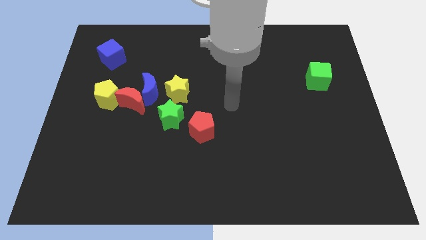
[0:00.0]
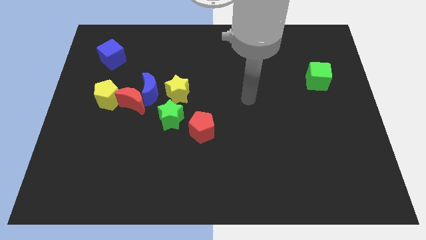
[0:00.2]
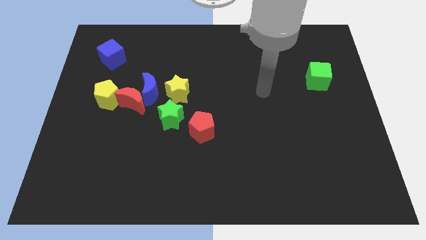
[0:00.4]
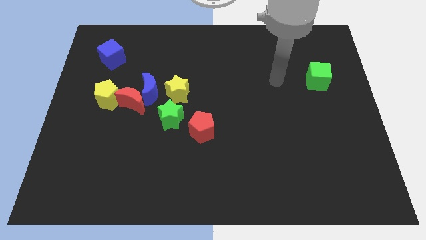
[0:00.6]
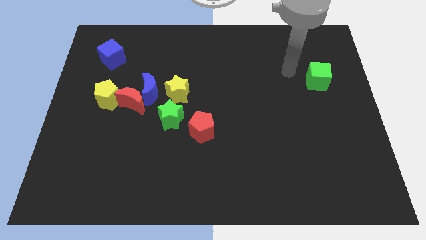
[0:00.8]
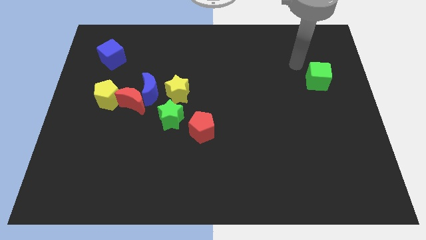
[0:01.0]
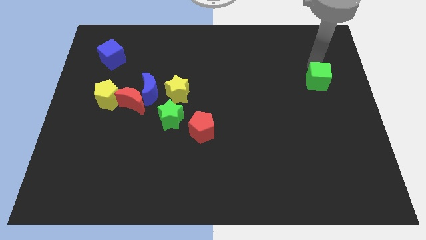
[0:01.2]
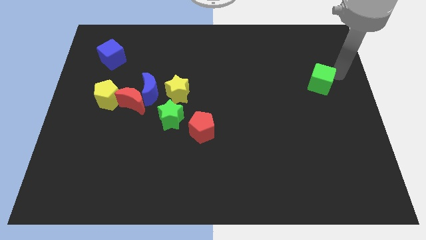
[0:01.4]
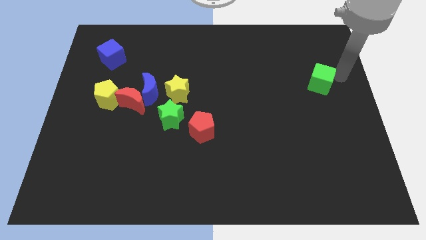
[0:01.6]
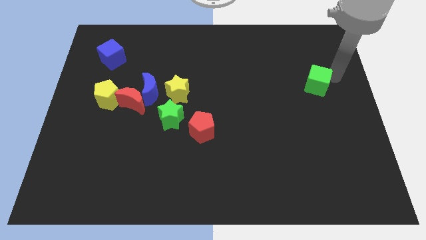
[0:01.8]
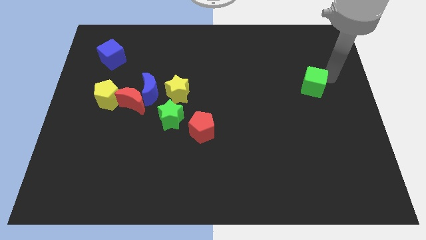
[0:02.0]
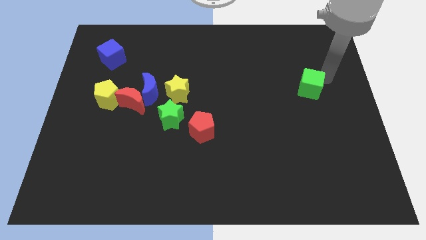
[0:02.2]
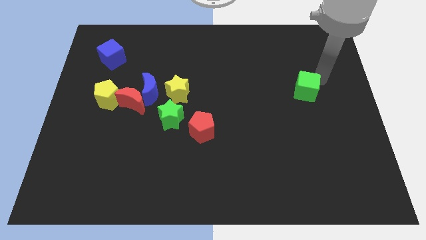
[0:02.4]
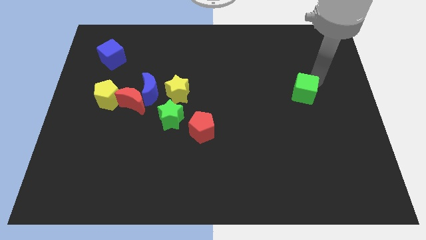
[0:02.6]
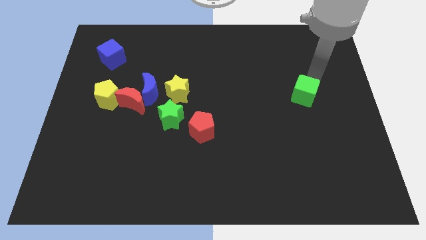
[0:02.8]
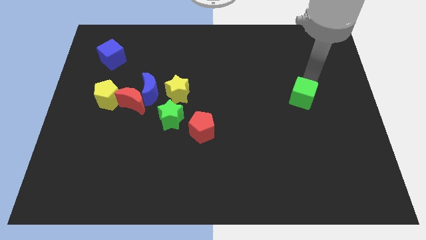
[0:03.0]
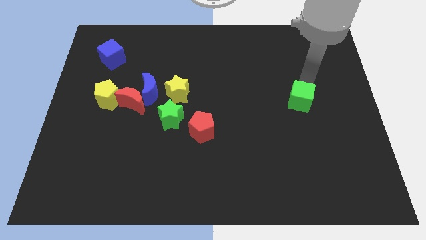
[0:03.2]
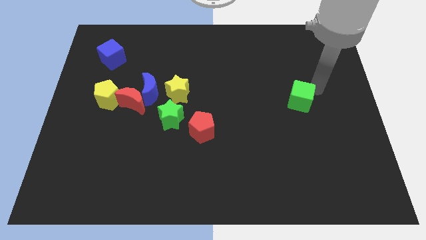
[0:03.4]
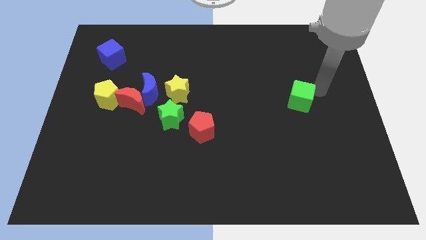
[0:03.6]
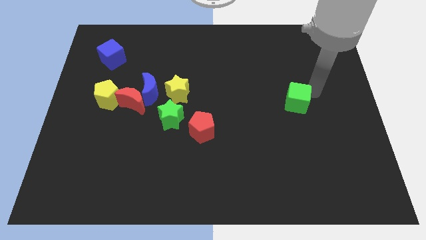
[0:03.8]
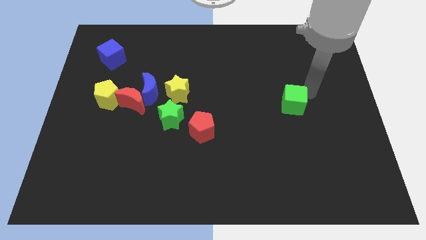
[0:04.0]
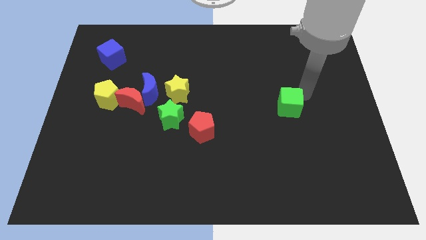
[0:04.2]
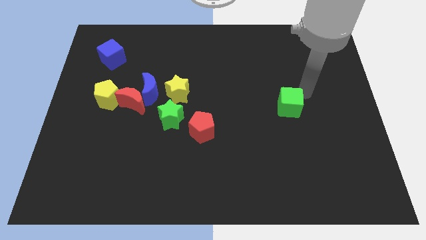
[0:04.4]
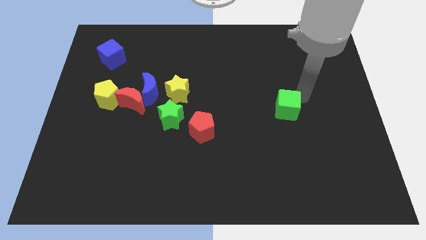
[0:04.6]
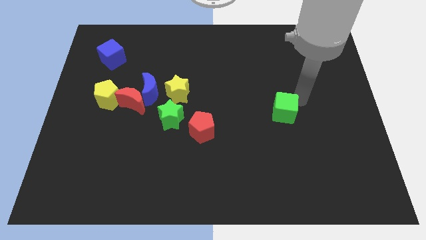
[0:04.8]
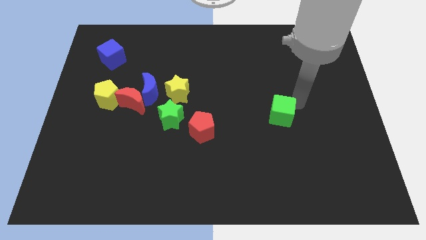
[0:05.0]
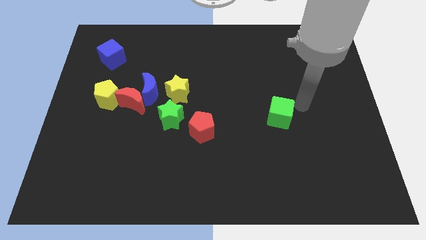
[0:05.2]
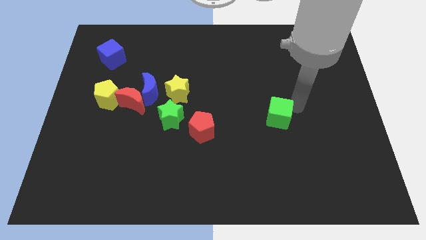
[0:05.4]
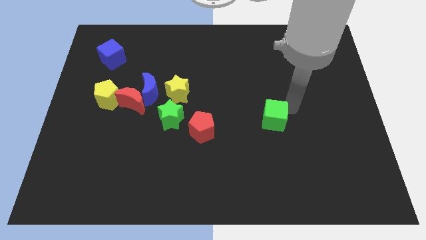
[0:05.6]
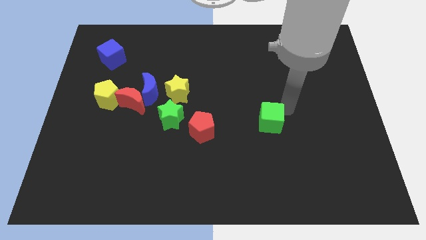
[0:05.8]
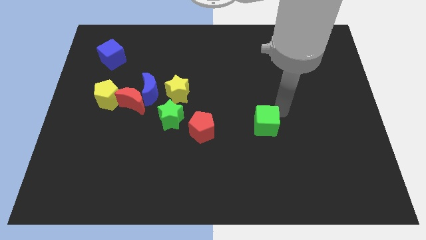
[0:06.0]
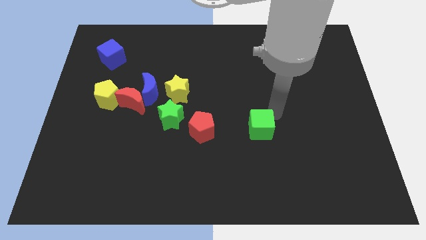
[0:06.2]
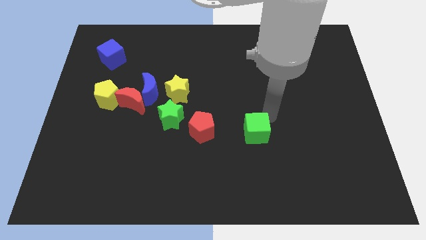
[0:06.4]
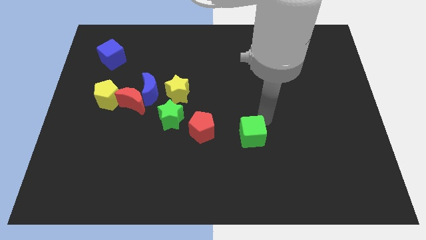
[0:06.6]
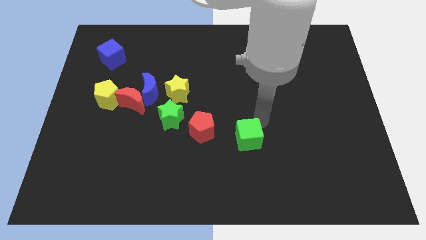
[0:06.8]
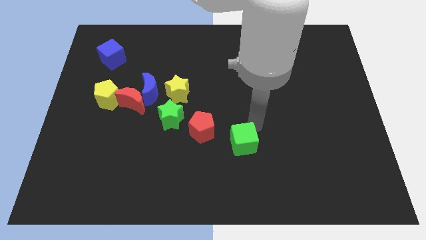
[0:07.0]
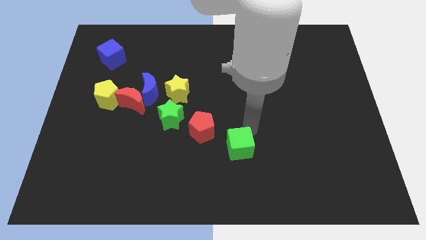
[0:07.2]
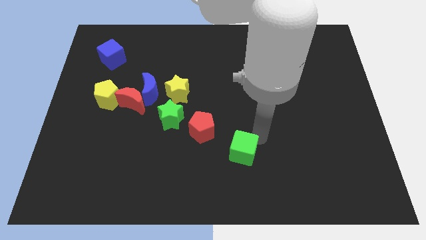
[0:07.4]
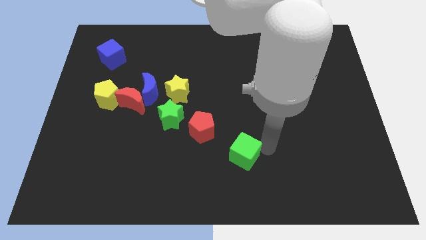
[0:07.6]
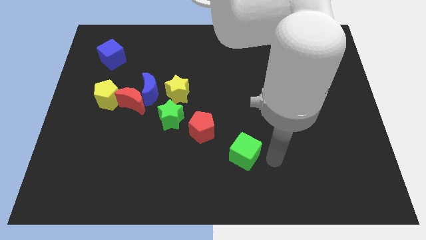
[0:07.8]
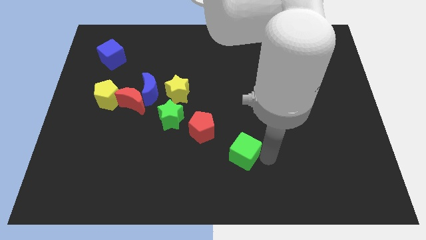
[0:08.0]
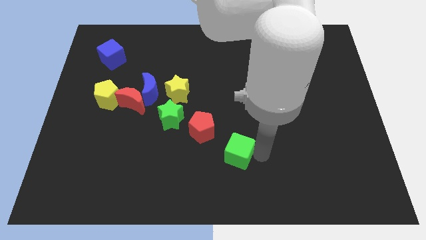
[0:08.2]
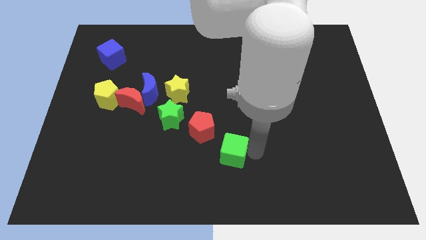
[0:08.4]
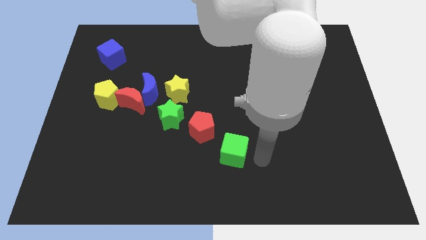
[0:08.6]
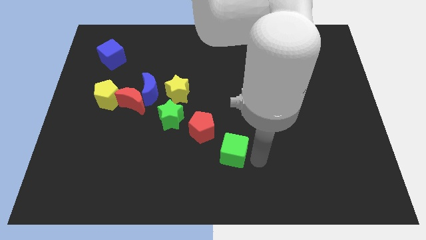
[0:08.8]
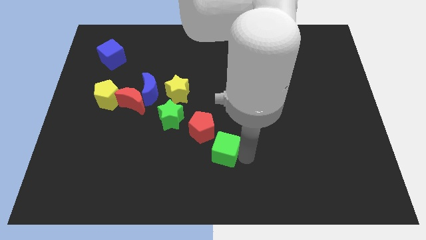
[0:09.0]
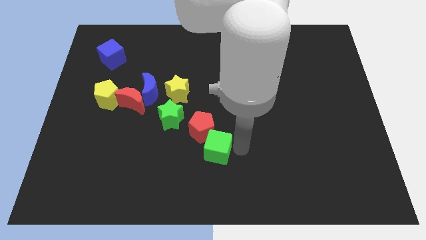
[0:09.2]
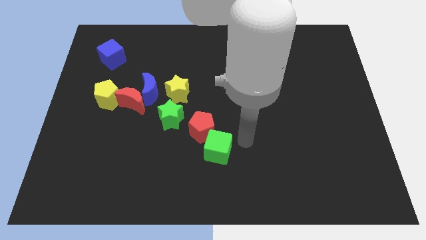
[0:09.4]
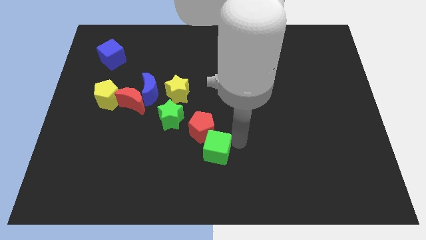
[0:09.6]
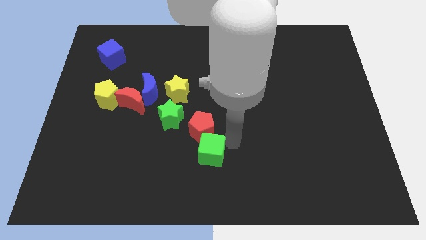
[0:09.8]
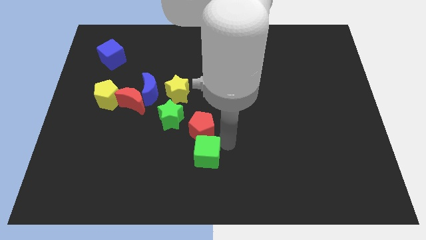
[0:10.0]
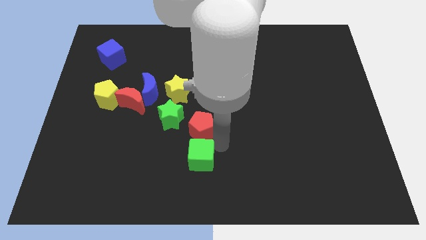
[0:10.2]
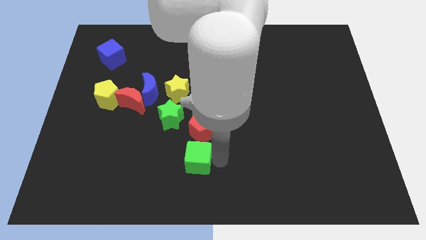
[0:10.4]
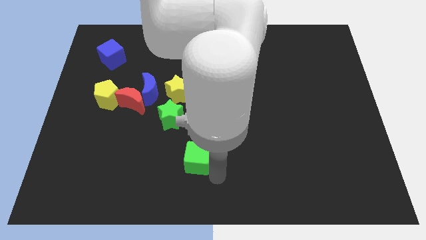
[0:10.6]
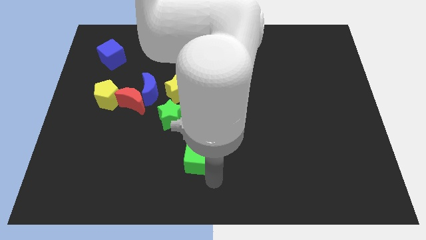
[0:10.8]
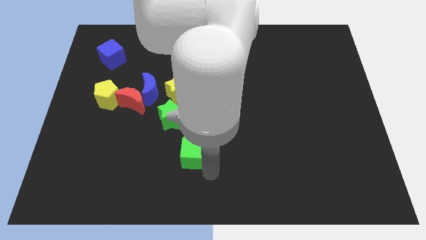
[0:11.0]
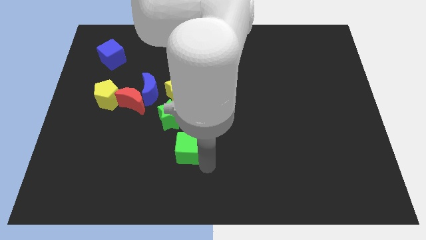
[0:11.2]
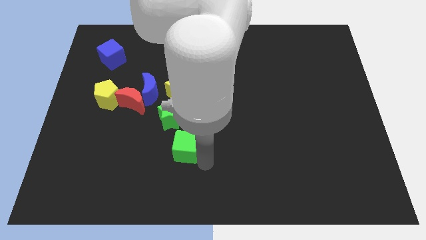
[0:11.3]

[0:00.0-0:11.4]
slide the green cube to the bottom side of the yellow star

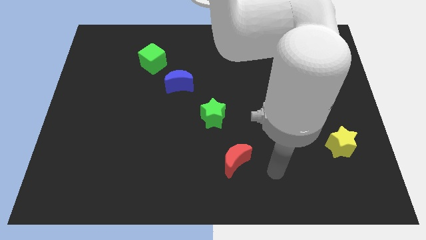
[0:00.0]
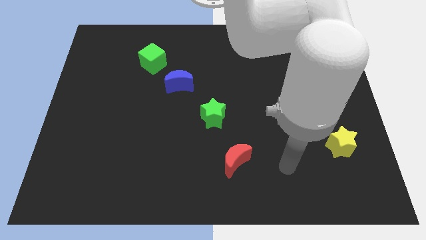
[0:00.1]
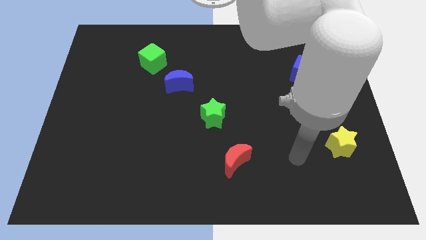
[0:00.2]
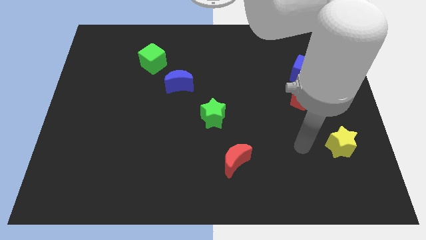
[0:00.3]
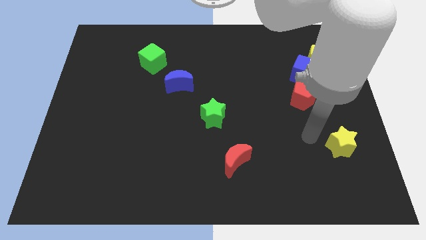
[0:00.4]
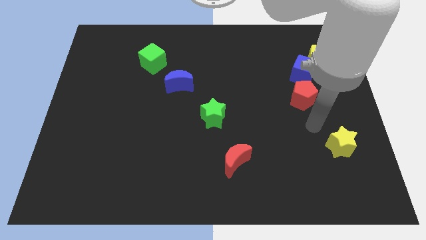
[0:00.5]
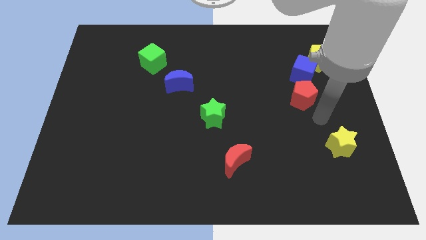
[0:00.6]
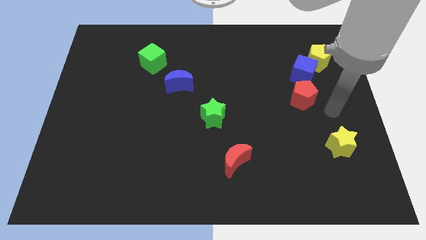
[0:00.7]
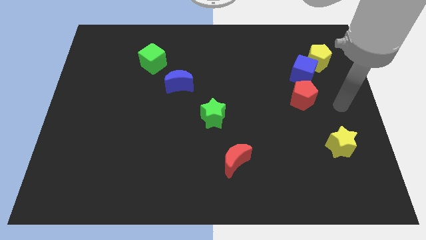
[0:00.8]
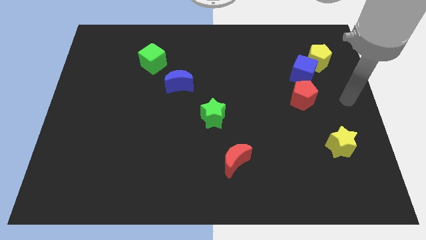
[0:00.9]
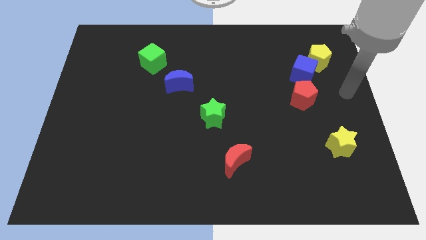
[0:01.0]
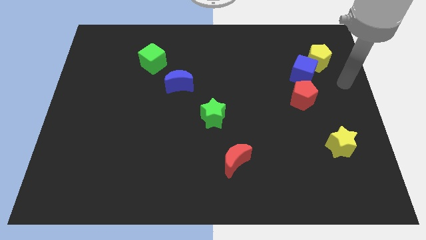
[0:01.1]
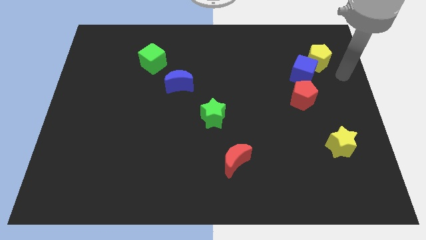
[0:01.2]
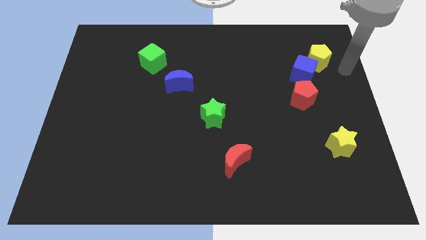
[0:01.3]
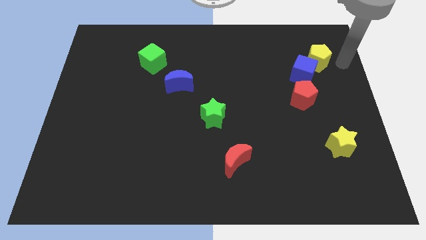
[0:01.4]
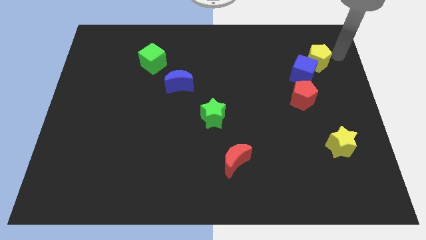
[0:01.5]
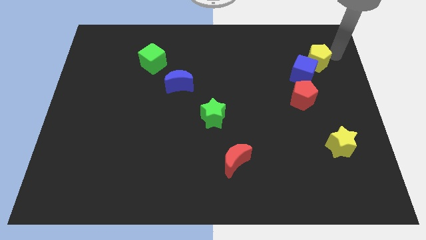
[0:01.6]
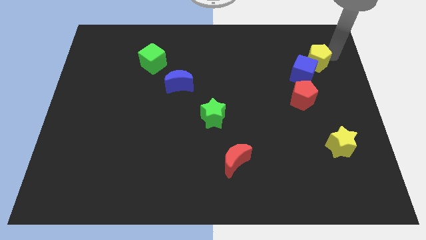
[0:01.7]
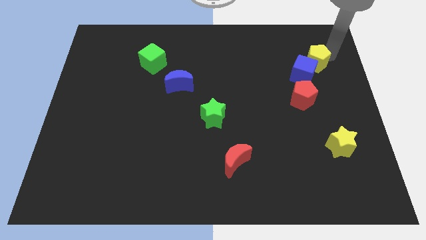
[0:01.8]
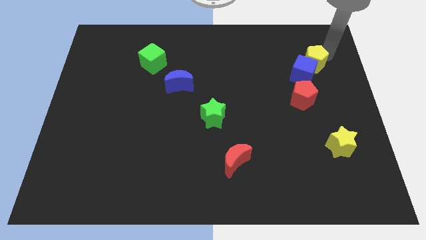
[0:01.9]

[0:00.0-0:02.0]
push the yellow pentagon above the red pentagon
